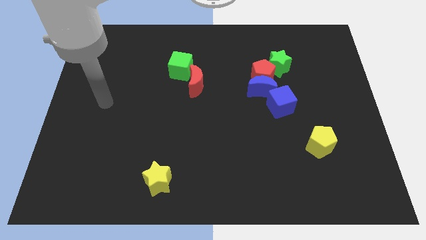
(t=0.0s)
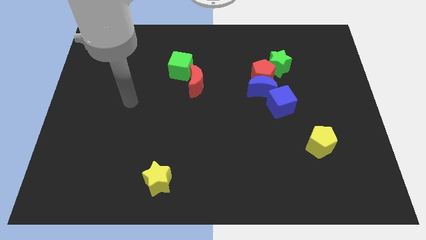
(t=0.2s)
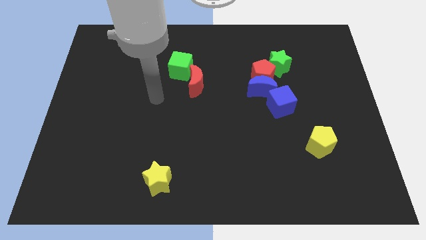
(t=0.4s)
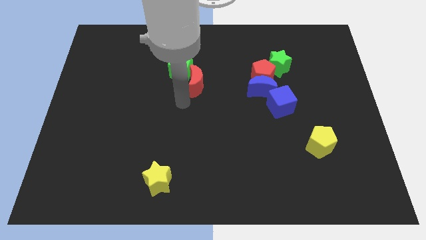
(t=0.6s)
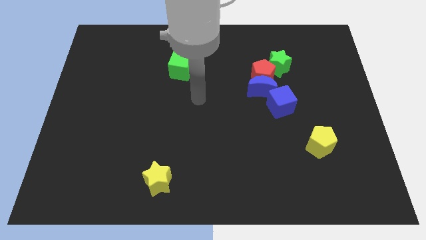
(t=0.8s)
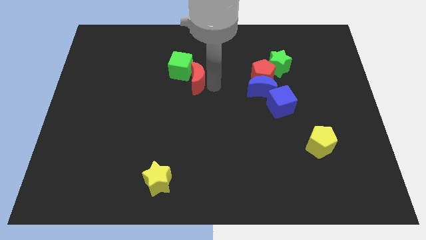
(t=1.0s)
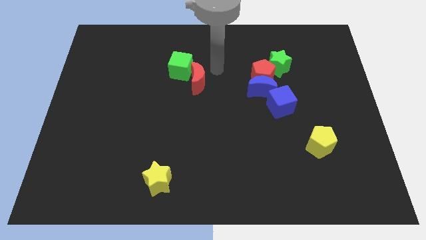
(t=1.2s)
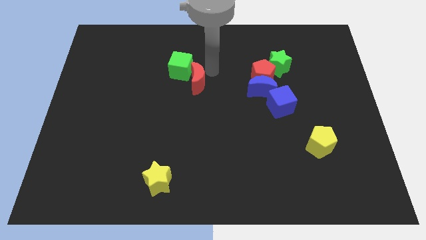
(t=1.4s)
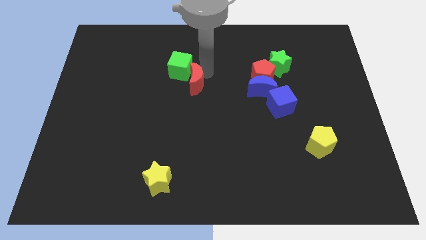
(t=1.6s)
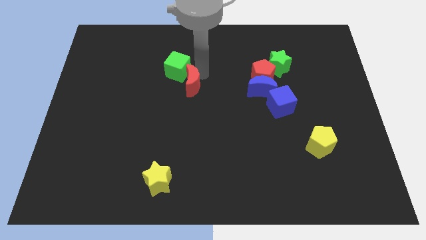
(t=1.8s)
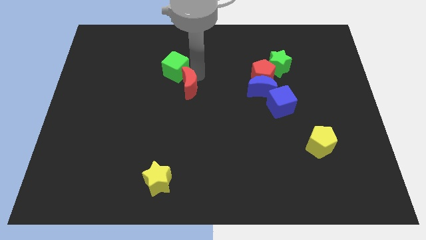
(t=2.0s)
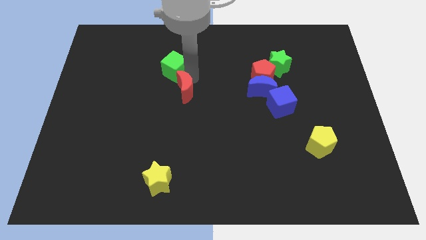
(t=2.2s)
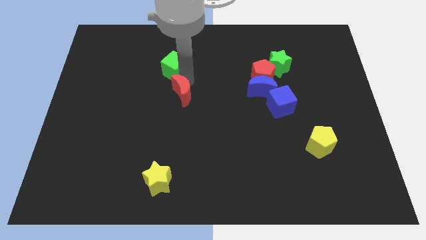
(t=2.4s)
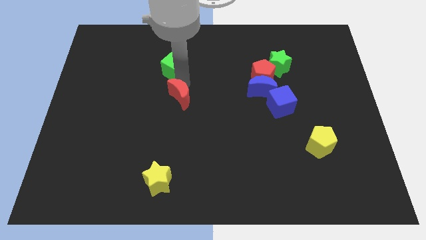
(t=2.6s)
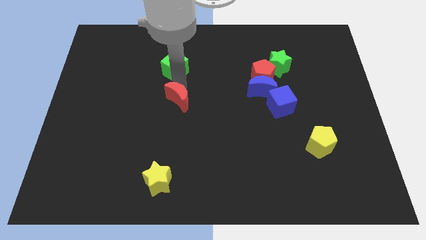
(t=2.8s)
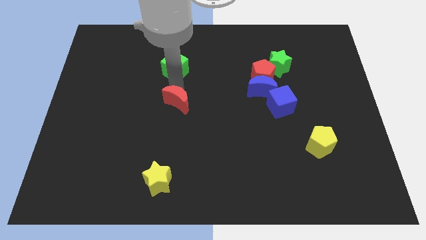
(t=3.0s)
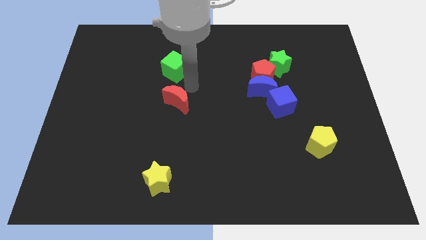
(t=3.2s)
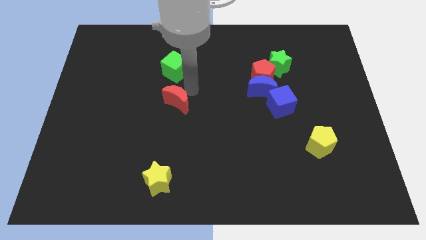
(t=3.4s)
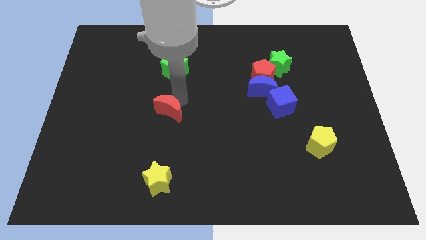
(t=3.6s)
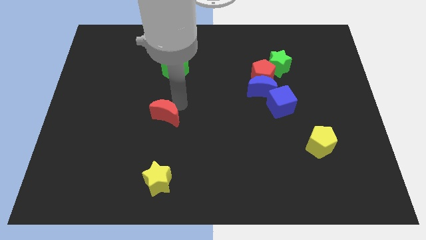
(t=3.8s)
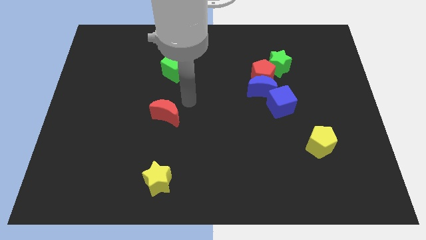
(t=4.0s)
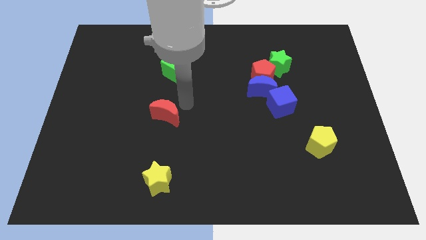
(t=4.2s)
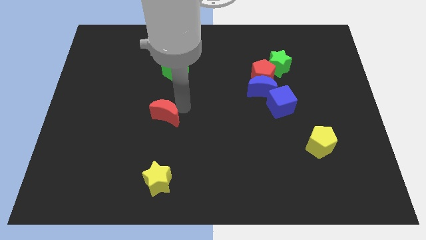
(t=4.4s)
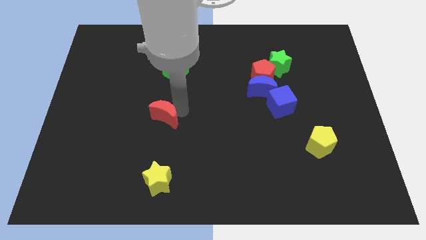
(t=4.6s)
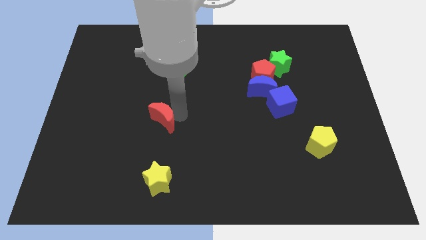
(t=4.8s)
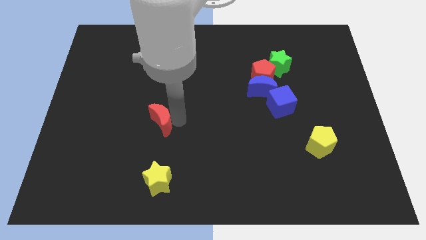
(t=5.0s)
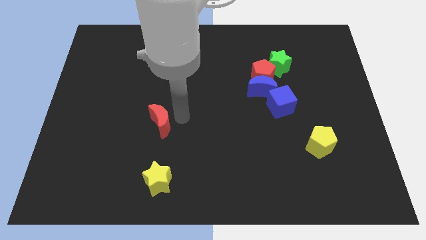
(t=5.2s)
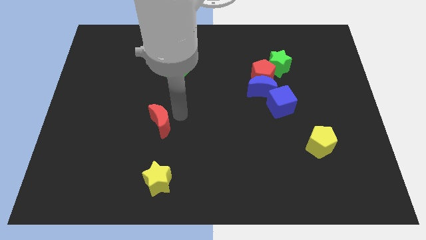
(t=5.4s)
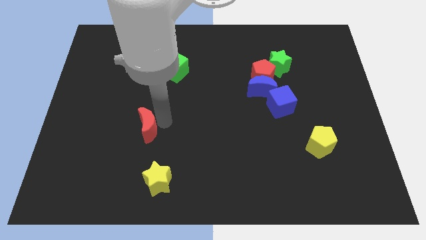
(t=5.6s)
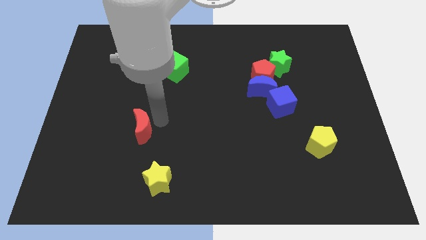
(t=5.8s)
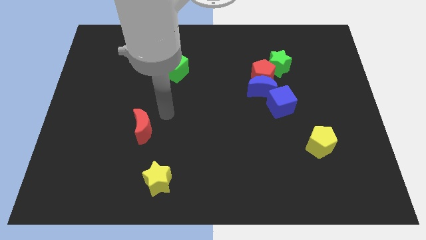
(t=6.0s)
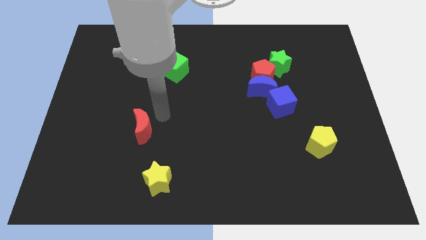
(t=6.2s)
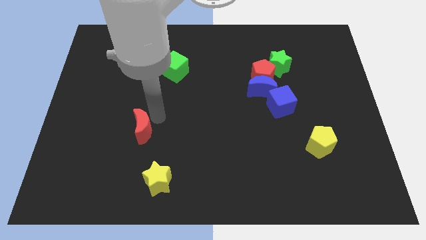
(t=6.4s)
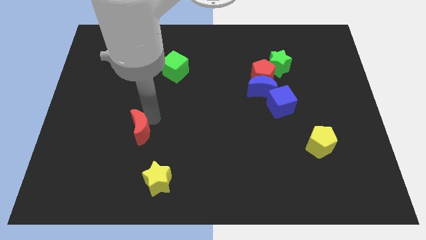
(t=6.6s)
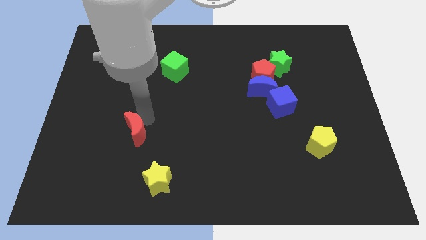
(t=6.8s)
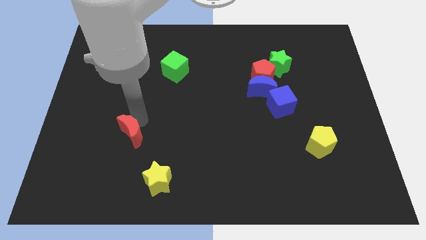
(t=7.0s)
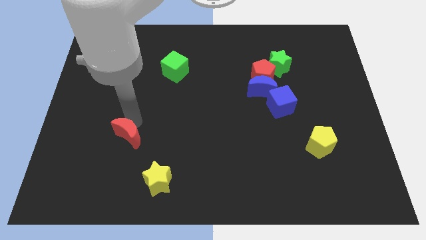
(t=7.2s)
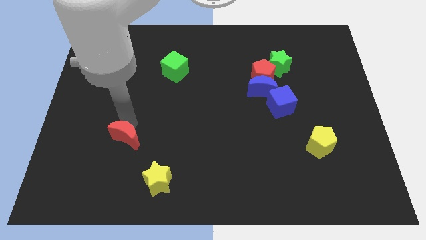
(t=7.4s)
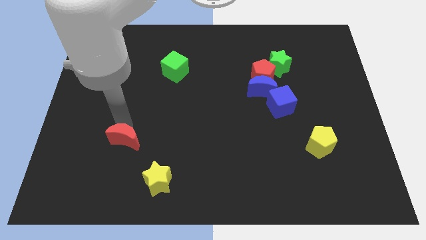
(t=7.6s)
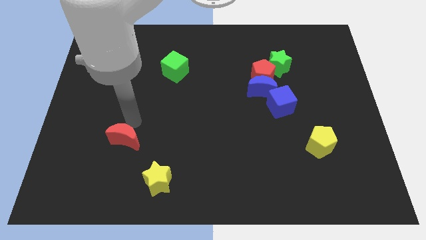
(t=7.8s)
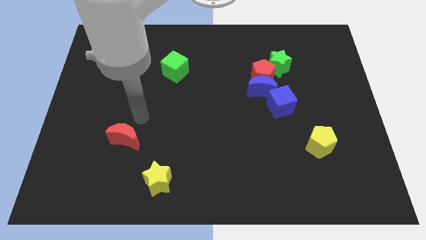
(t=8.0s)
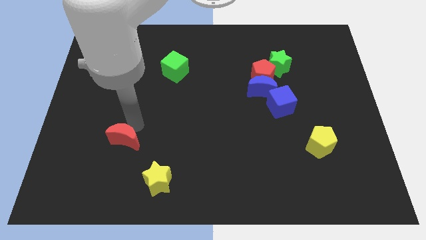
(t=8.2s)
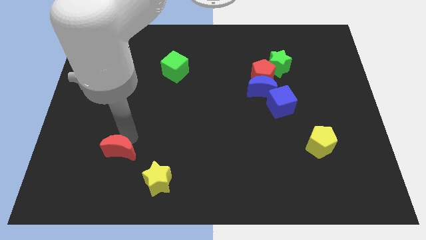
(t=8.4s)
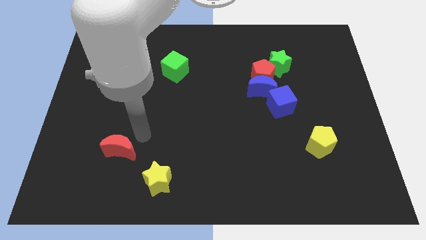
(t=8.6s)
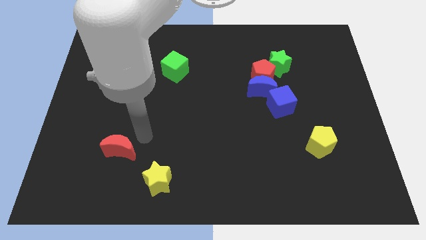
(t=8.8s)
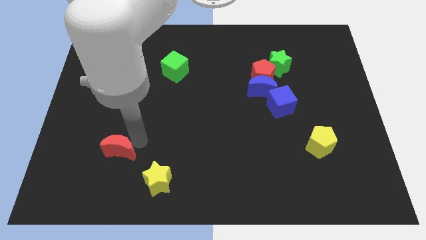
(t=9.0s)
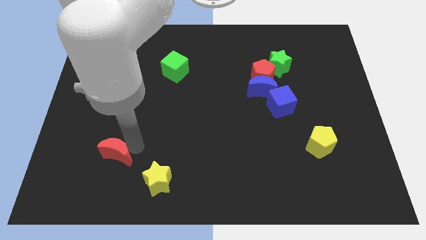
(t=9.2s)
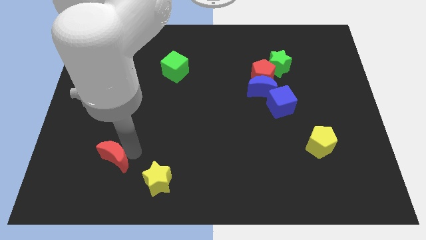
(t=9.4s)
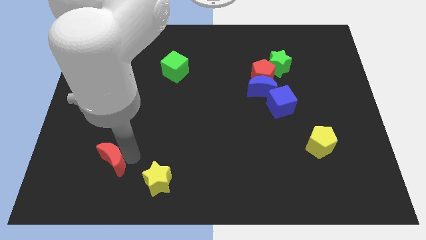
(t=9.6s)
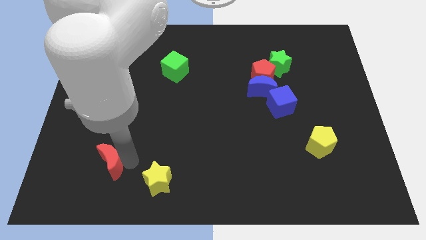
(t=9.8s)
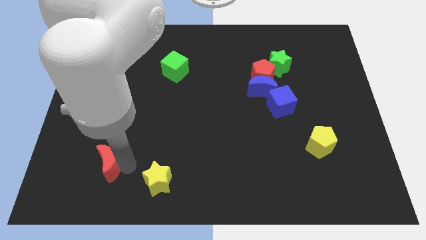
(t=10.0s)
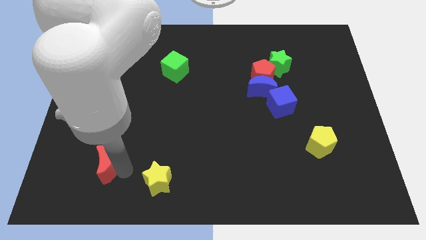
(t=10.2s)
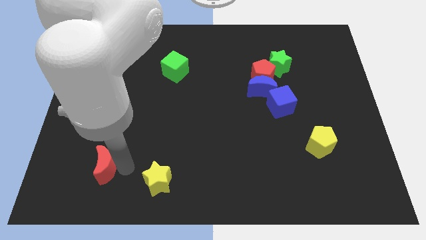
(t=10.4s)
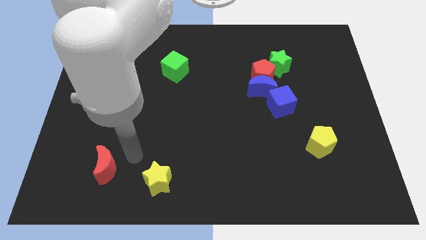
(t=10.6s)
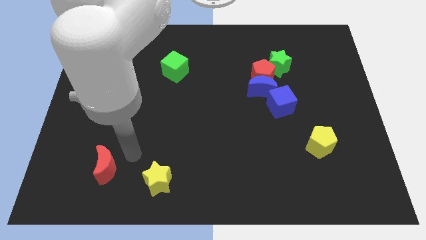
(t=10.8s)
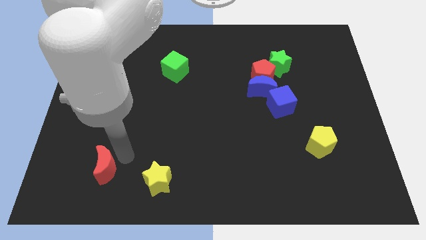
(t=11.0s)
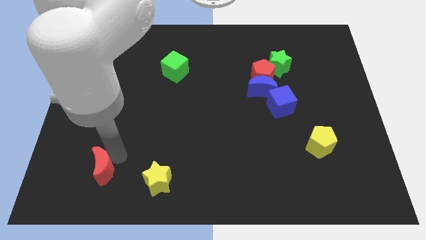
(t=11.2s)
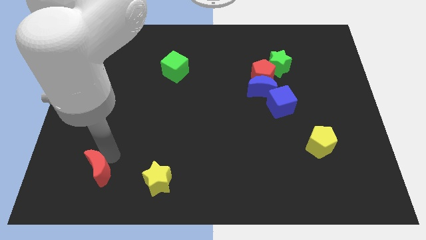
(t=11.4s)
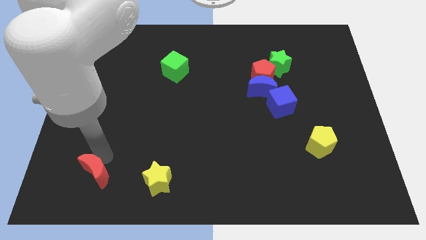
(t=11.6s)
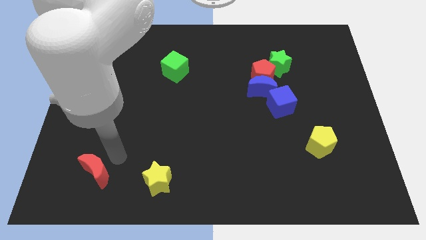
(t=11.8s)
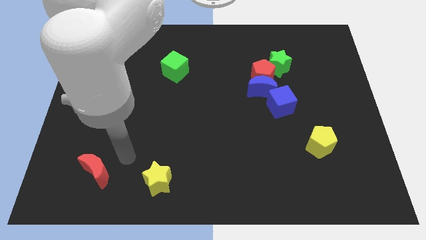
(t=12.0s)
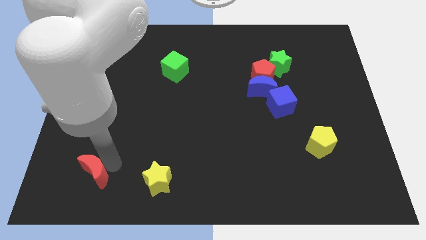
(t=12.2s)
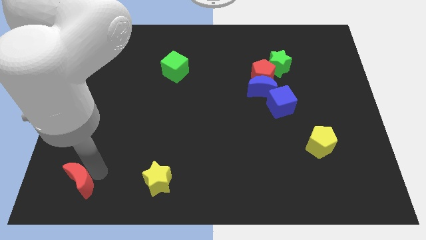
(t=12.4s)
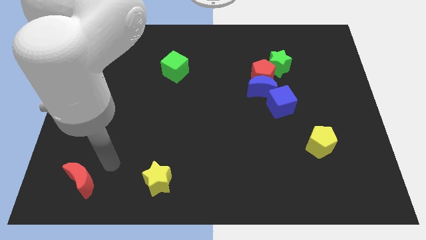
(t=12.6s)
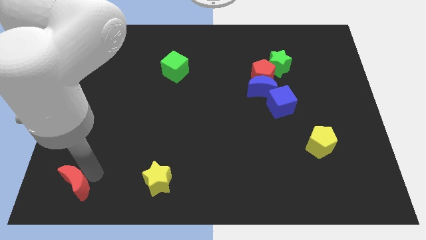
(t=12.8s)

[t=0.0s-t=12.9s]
move the red moon to the bottom left
